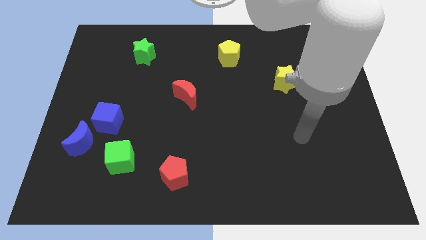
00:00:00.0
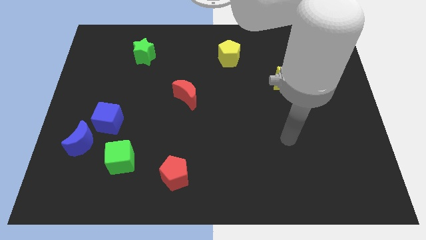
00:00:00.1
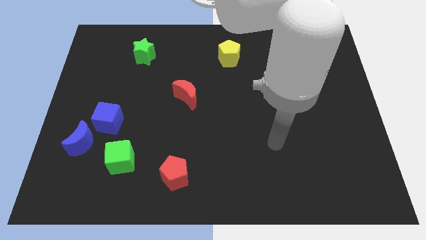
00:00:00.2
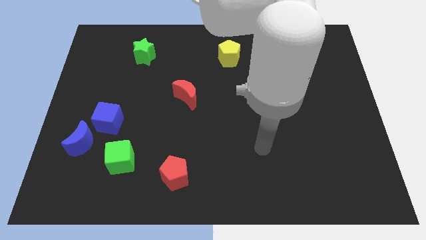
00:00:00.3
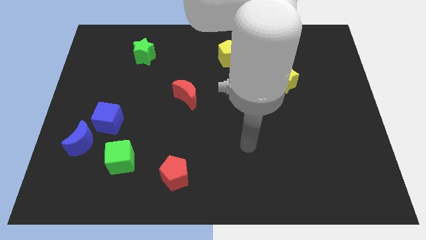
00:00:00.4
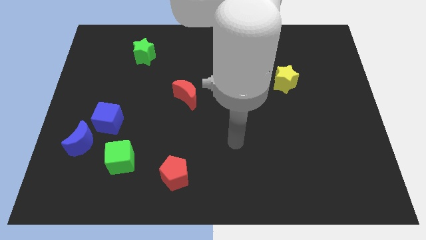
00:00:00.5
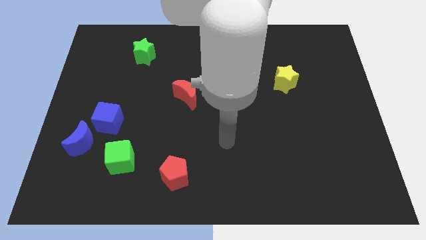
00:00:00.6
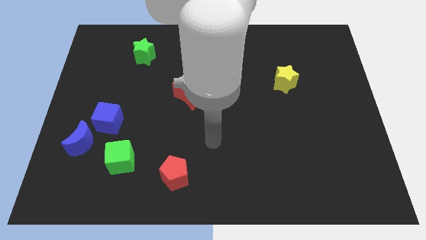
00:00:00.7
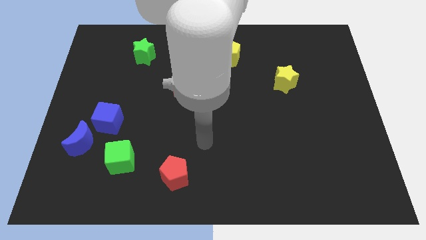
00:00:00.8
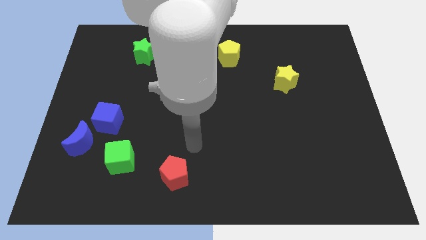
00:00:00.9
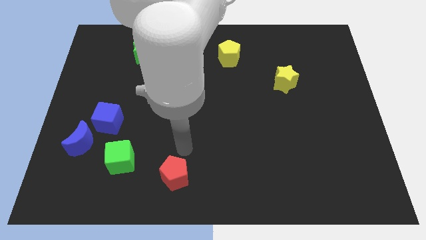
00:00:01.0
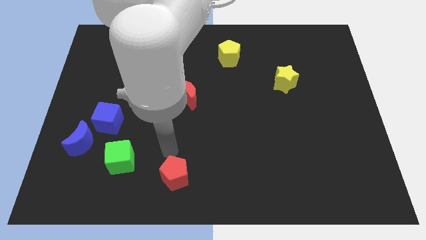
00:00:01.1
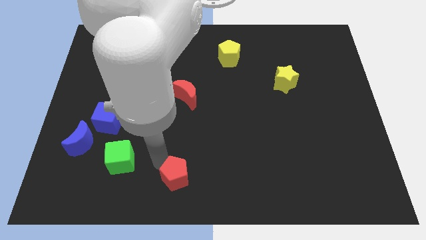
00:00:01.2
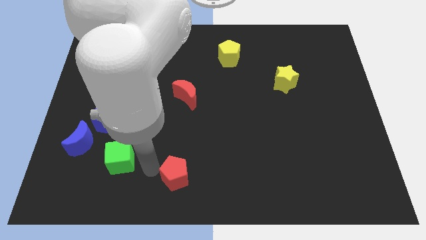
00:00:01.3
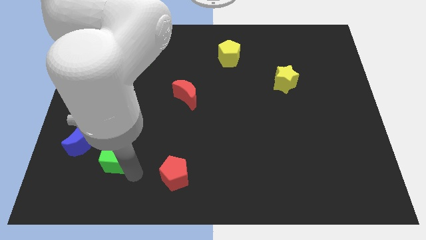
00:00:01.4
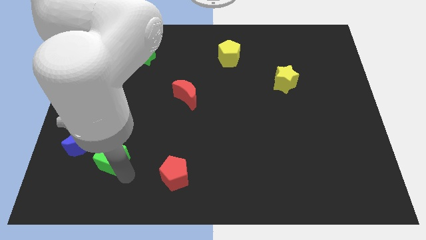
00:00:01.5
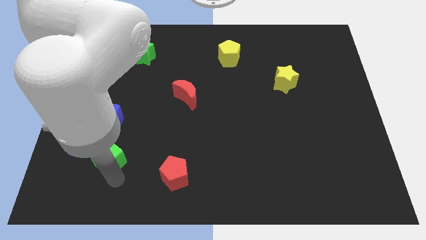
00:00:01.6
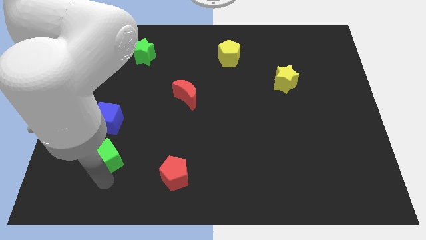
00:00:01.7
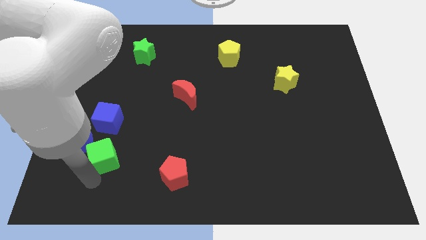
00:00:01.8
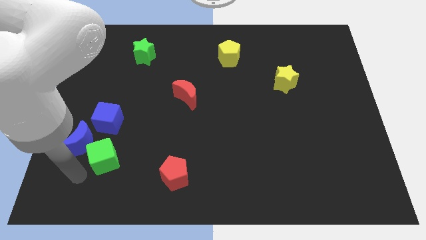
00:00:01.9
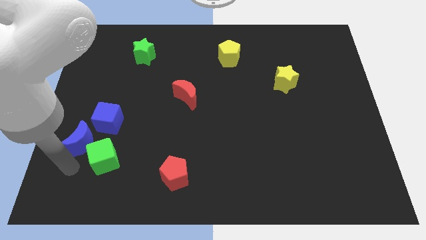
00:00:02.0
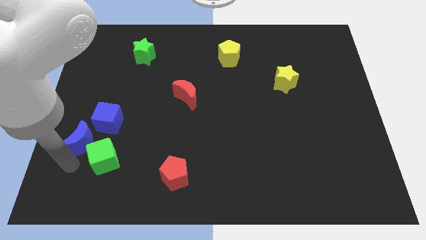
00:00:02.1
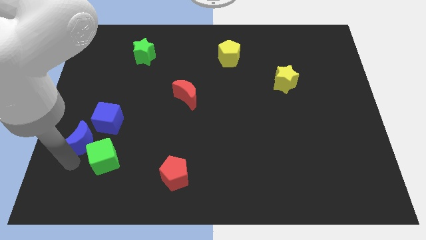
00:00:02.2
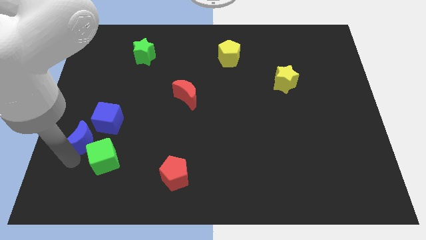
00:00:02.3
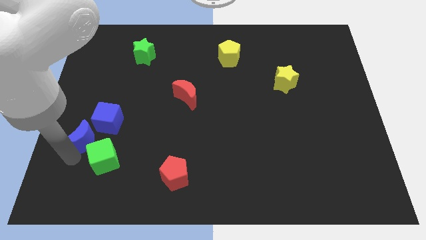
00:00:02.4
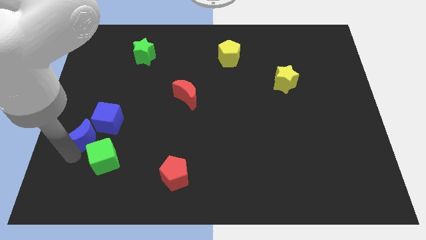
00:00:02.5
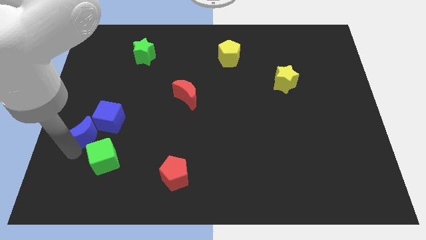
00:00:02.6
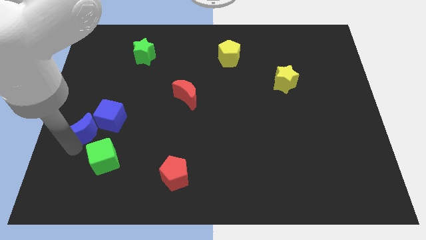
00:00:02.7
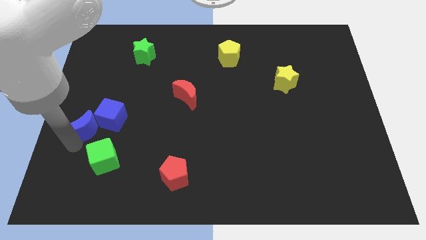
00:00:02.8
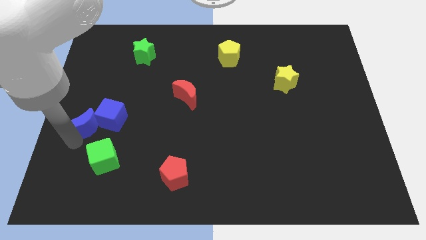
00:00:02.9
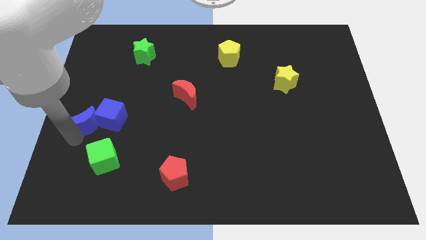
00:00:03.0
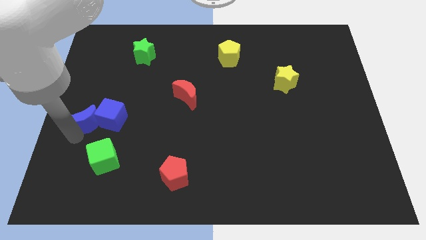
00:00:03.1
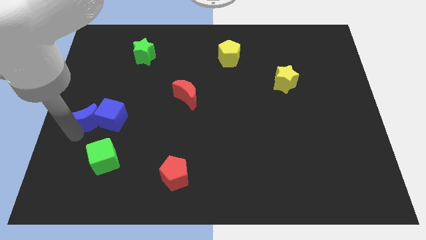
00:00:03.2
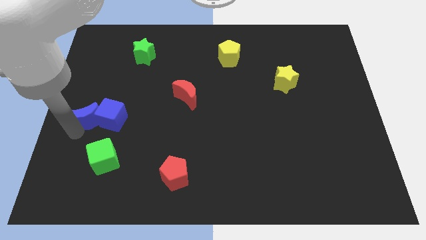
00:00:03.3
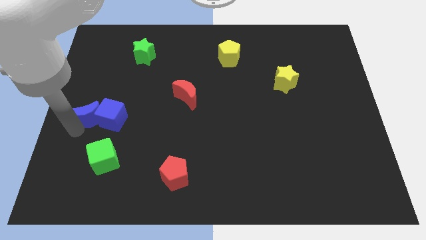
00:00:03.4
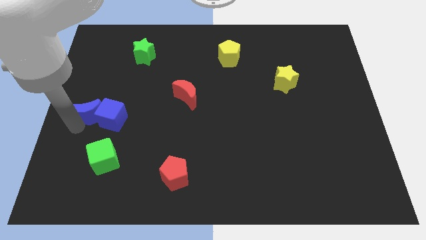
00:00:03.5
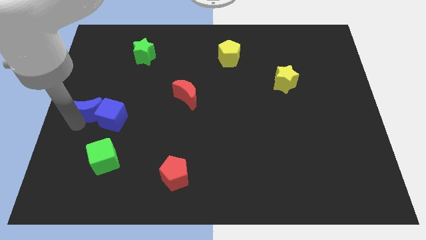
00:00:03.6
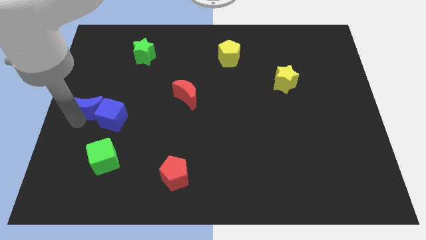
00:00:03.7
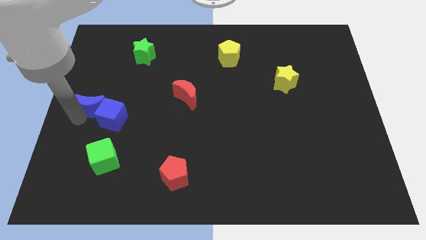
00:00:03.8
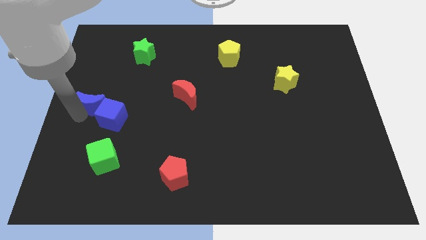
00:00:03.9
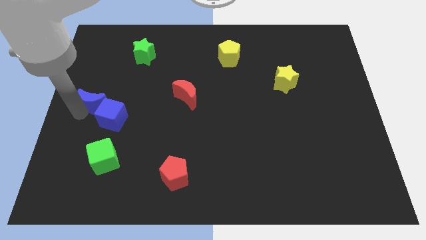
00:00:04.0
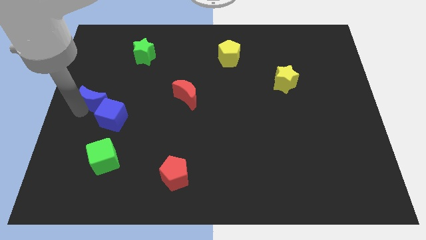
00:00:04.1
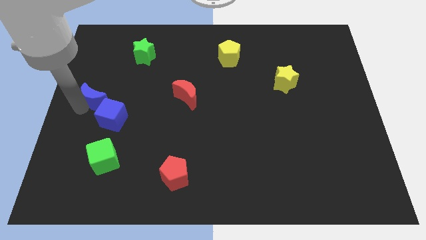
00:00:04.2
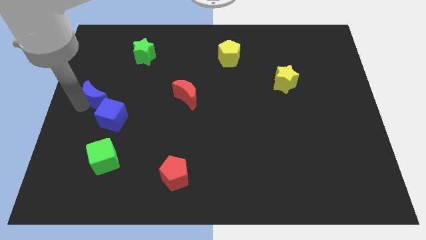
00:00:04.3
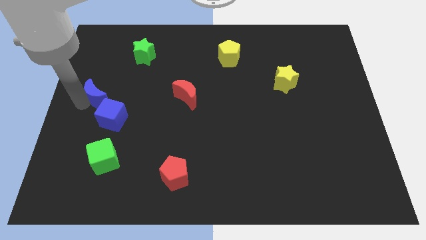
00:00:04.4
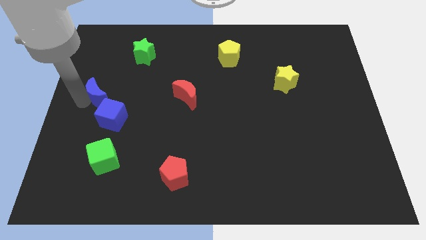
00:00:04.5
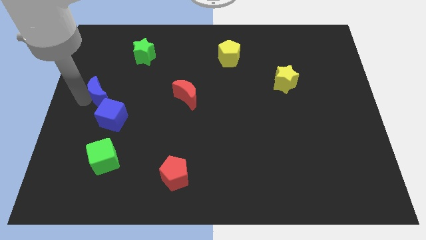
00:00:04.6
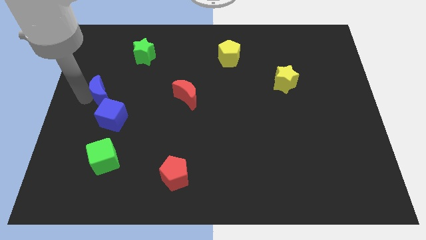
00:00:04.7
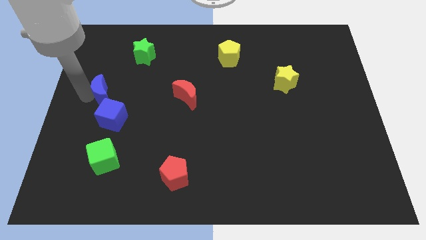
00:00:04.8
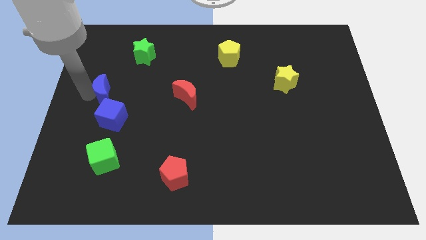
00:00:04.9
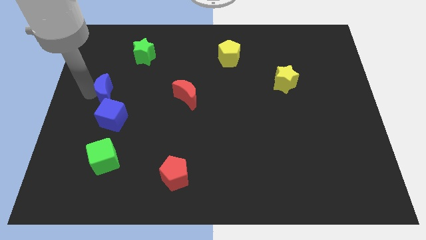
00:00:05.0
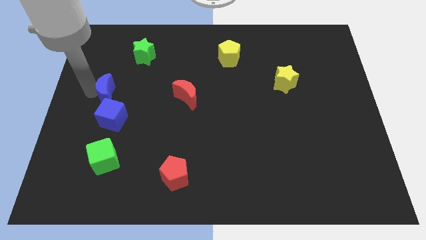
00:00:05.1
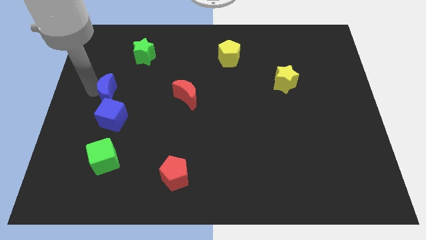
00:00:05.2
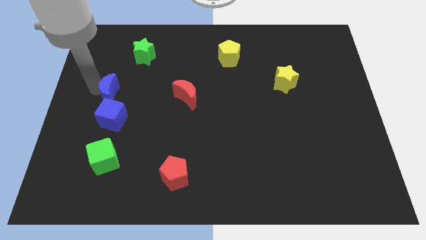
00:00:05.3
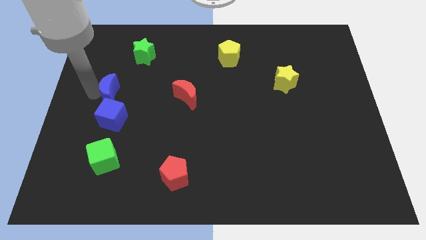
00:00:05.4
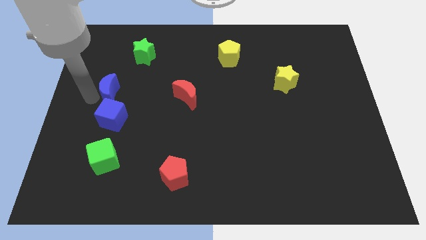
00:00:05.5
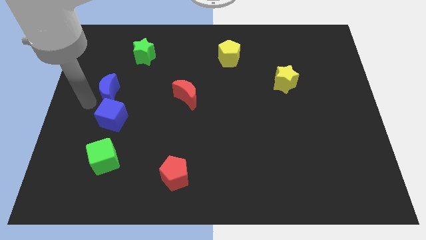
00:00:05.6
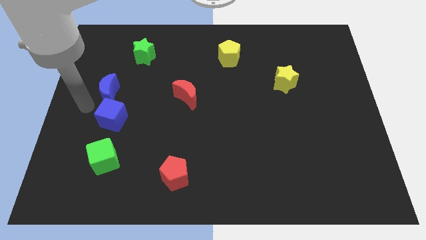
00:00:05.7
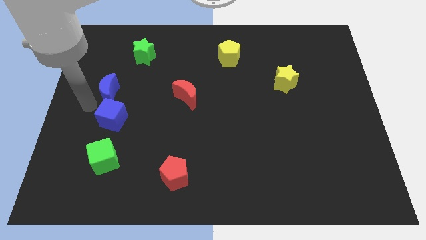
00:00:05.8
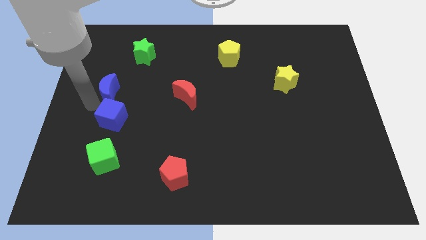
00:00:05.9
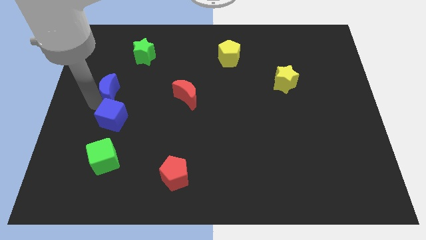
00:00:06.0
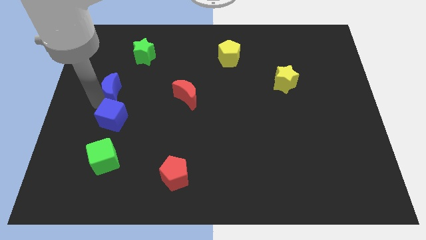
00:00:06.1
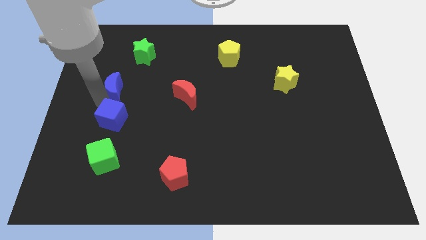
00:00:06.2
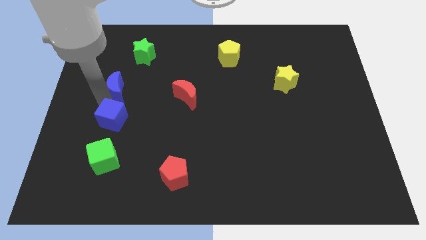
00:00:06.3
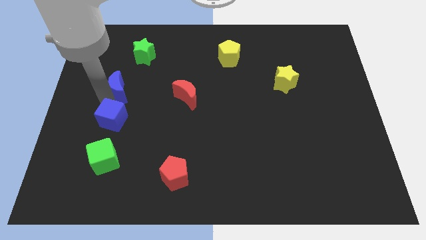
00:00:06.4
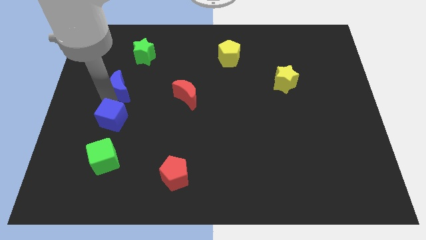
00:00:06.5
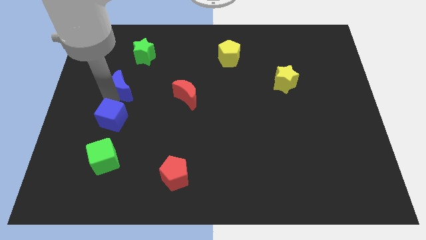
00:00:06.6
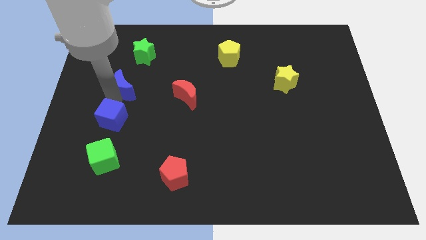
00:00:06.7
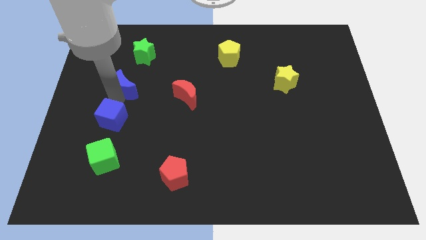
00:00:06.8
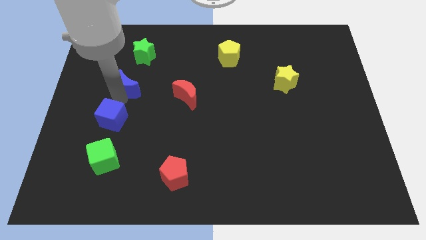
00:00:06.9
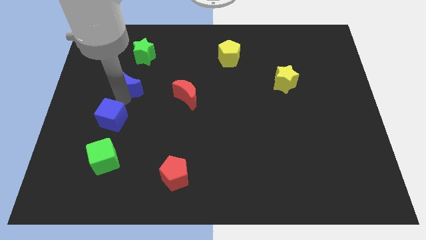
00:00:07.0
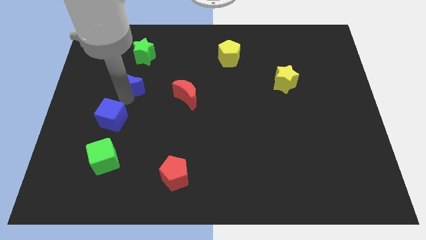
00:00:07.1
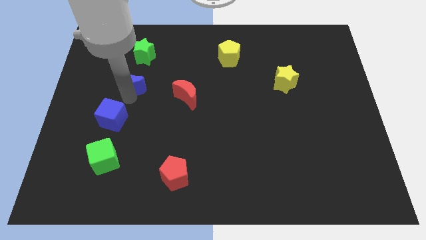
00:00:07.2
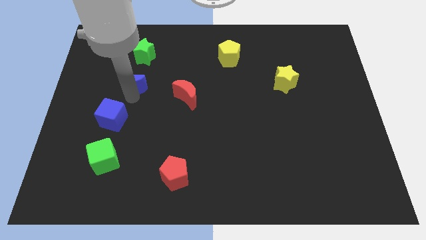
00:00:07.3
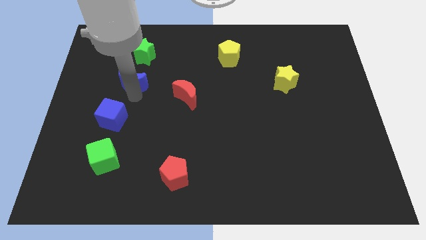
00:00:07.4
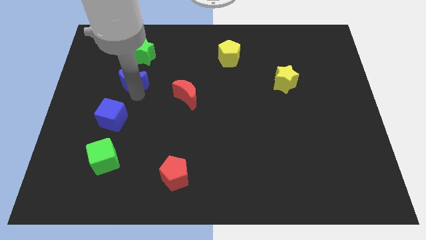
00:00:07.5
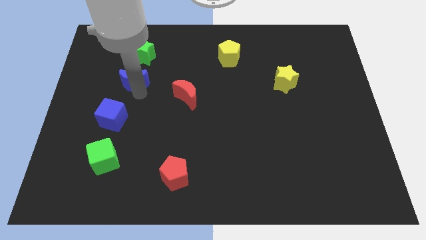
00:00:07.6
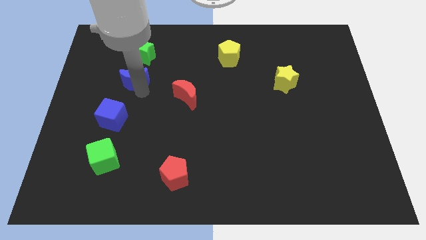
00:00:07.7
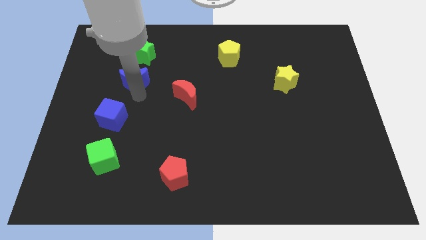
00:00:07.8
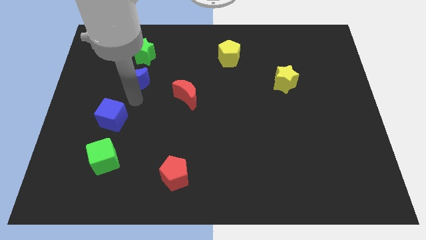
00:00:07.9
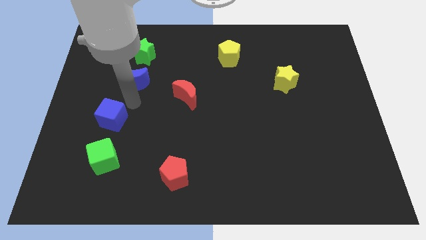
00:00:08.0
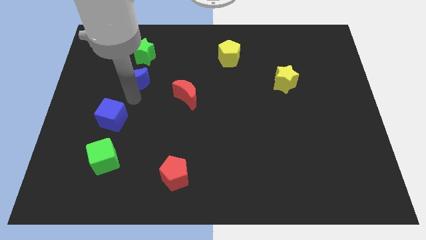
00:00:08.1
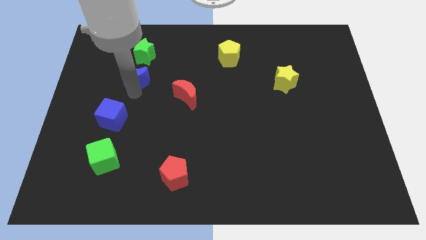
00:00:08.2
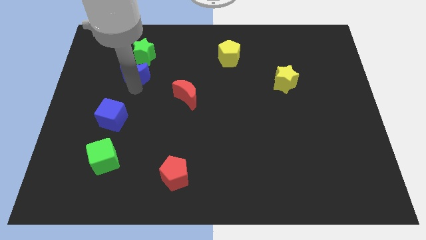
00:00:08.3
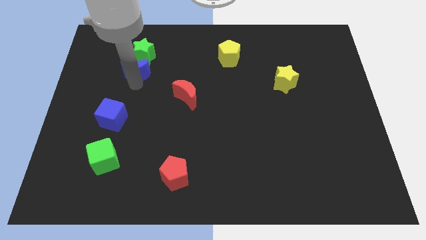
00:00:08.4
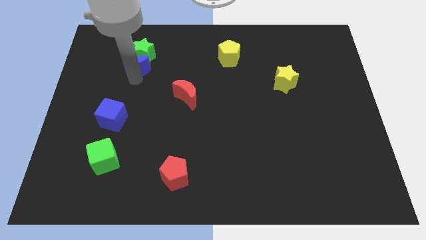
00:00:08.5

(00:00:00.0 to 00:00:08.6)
put the blue moon next to the green star
